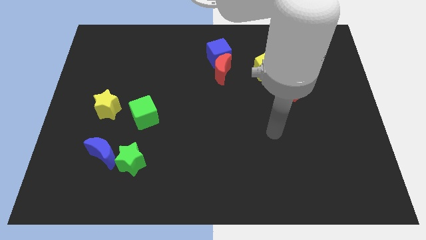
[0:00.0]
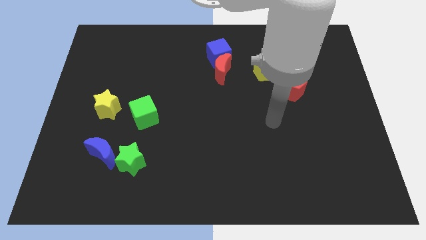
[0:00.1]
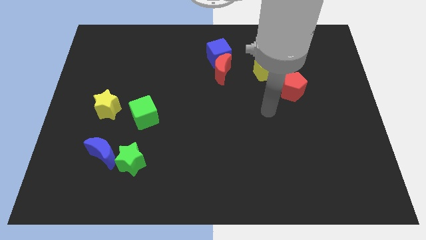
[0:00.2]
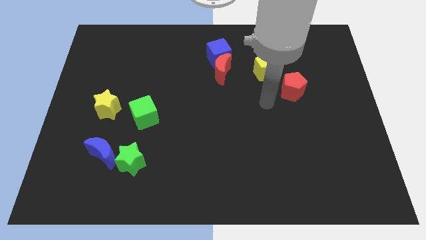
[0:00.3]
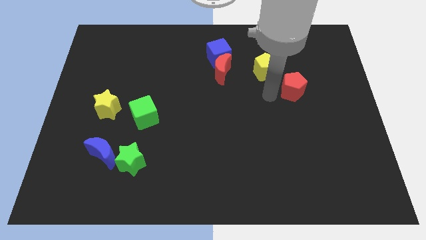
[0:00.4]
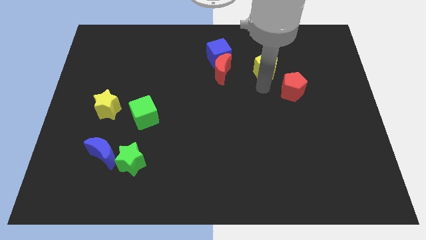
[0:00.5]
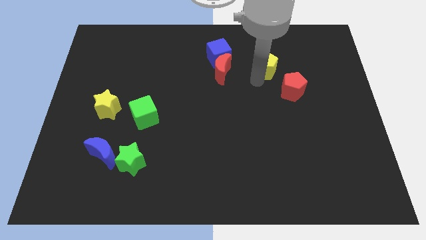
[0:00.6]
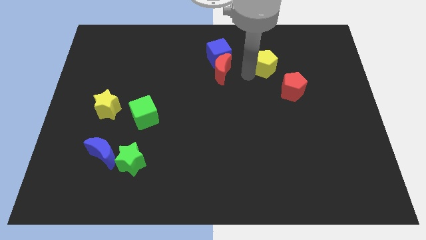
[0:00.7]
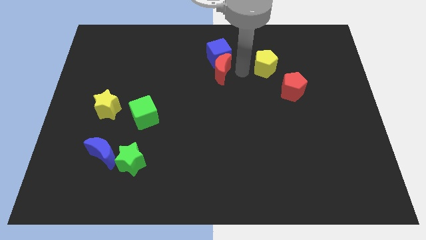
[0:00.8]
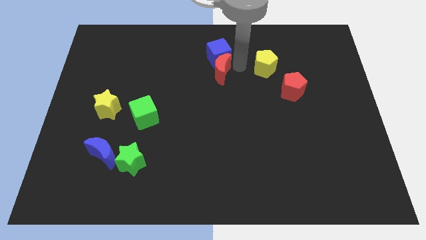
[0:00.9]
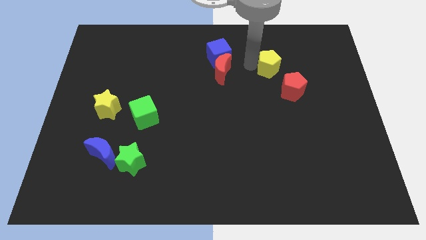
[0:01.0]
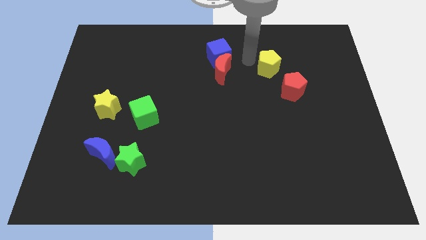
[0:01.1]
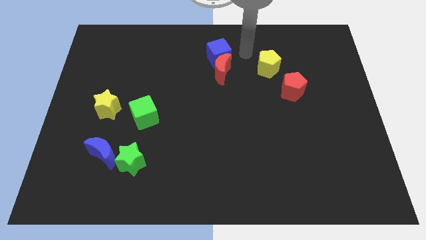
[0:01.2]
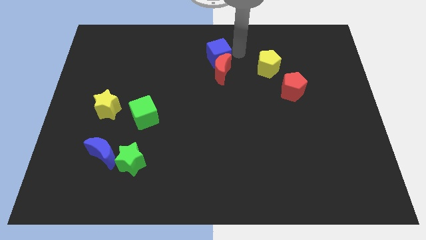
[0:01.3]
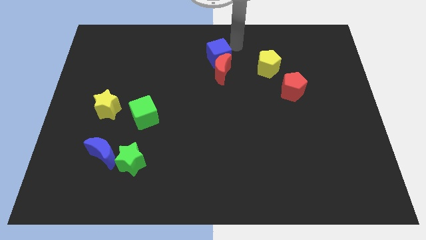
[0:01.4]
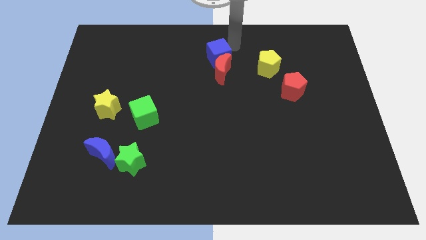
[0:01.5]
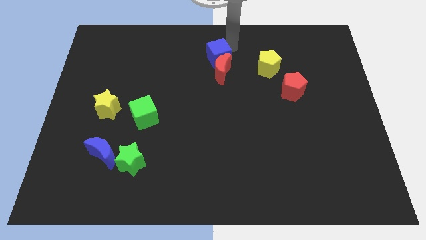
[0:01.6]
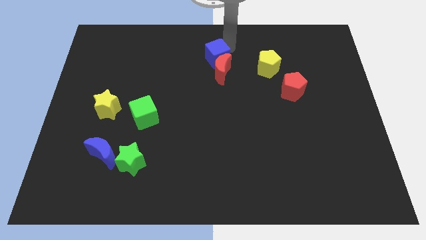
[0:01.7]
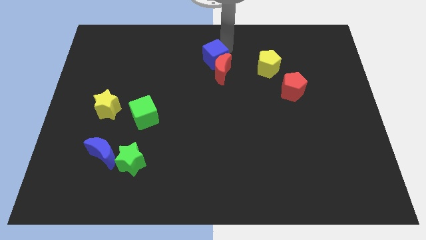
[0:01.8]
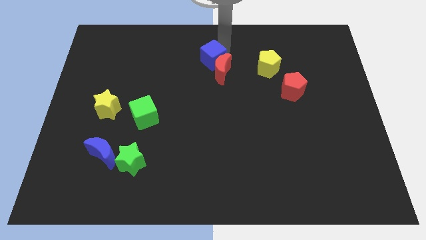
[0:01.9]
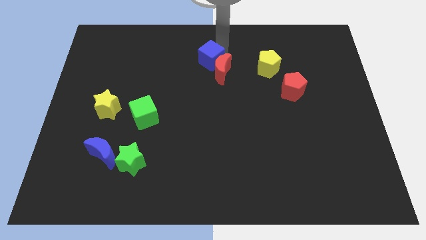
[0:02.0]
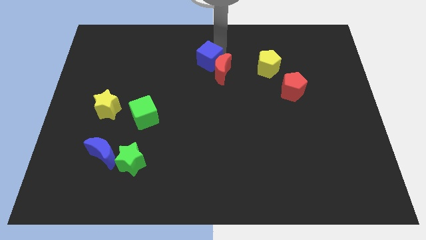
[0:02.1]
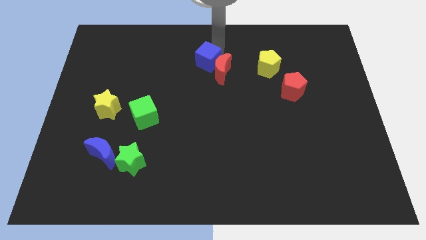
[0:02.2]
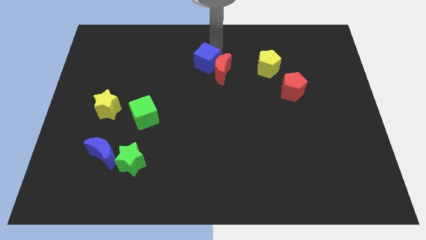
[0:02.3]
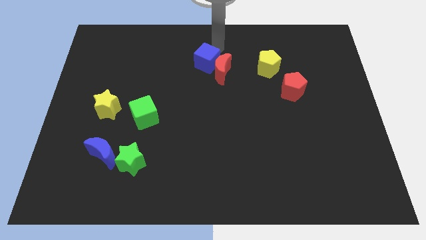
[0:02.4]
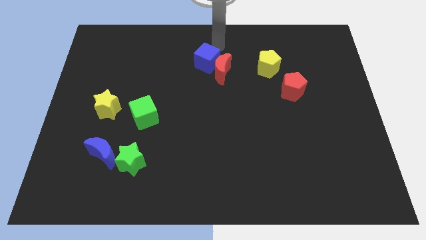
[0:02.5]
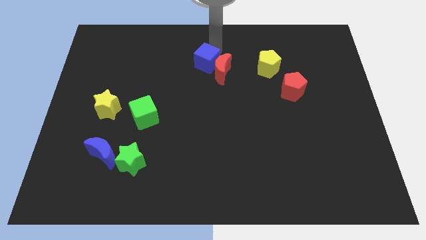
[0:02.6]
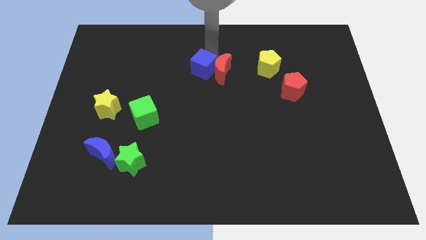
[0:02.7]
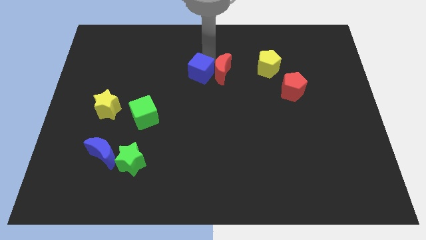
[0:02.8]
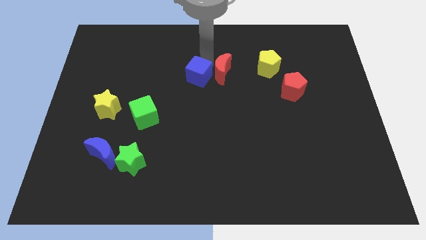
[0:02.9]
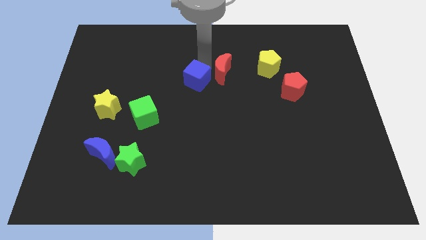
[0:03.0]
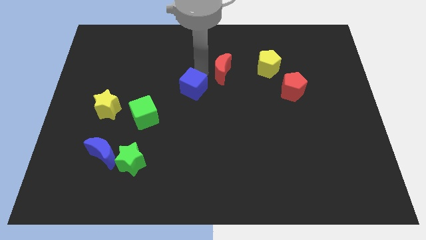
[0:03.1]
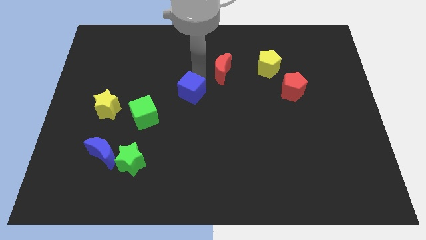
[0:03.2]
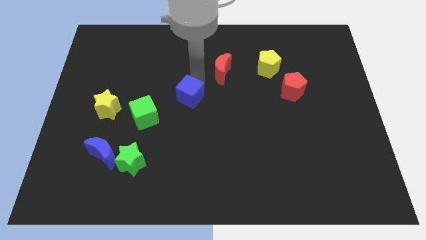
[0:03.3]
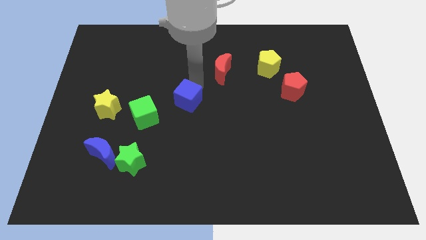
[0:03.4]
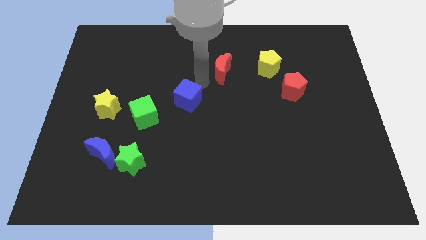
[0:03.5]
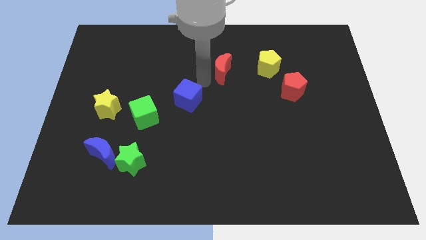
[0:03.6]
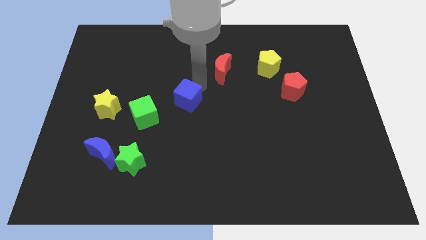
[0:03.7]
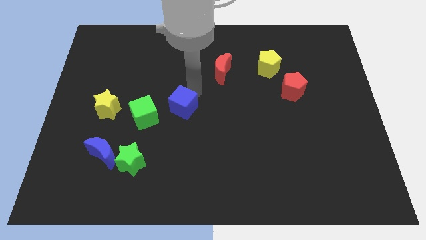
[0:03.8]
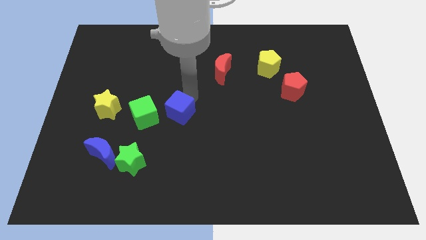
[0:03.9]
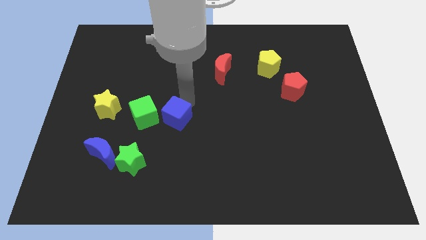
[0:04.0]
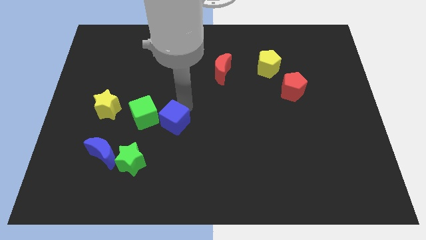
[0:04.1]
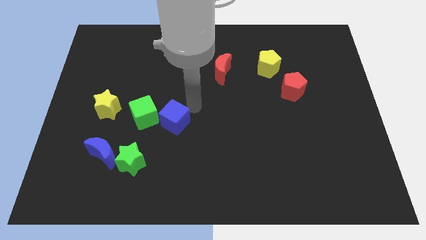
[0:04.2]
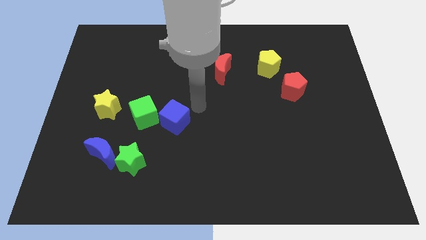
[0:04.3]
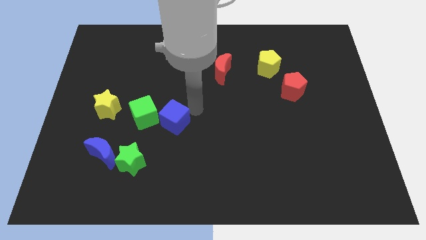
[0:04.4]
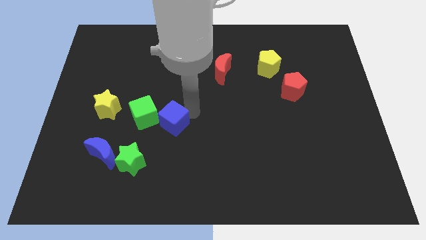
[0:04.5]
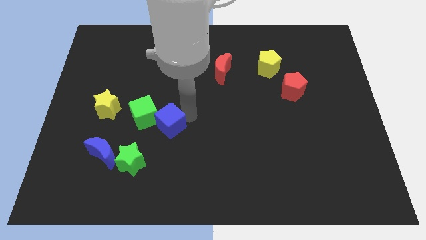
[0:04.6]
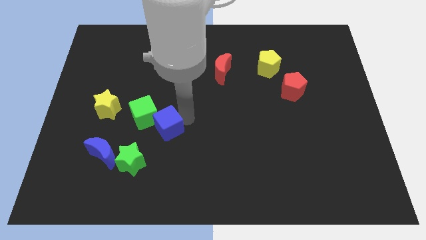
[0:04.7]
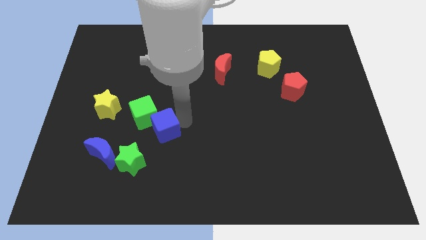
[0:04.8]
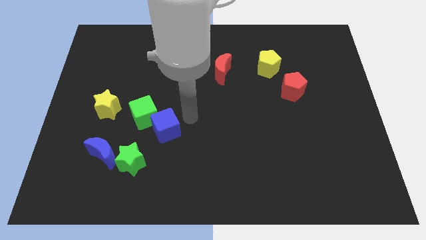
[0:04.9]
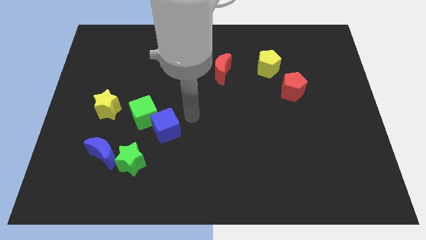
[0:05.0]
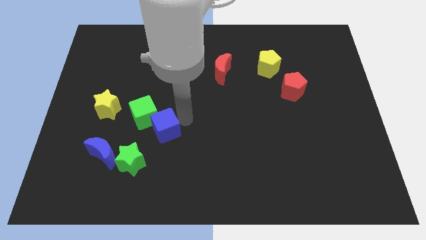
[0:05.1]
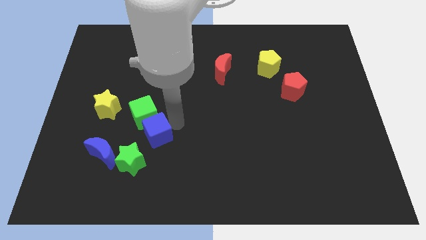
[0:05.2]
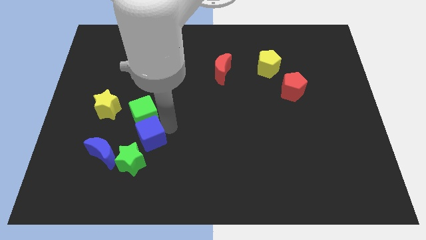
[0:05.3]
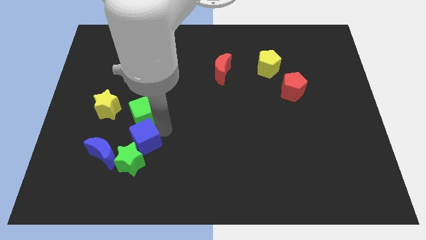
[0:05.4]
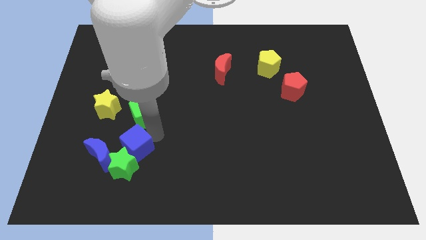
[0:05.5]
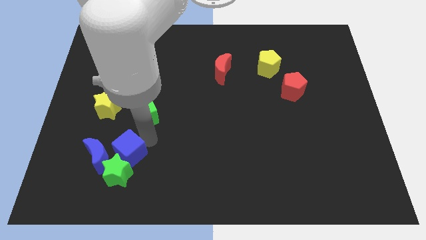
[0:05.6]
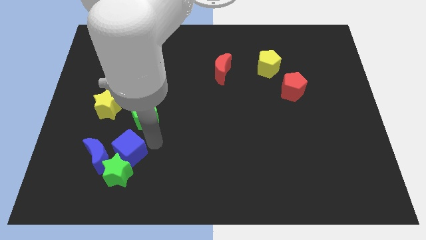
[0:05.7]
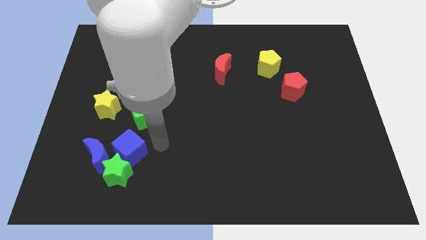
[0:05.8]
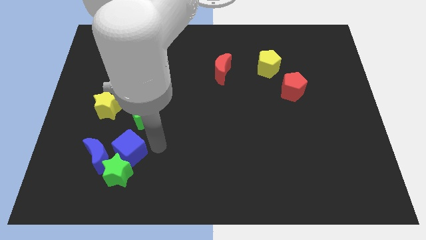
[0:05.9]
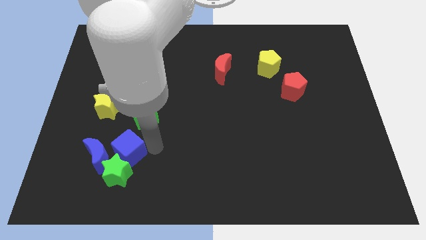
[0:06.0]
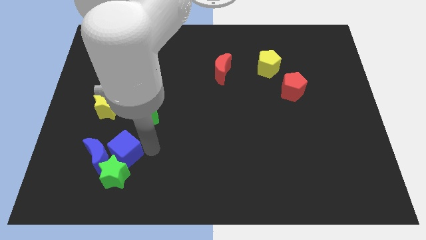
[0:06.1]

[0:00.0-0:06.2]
push the blue cube towards the blue moon

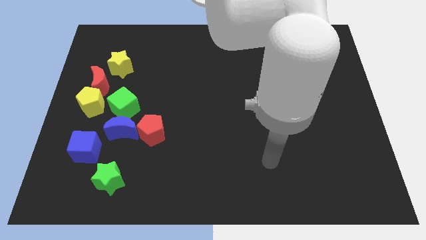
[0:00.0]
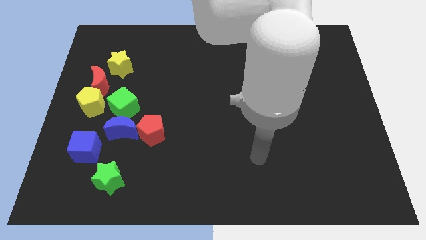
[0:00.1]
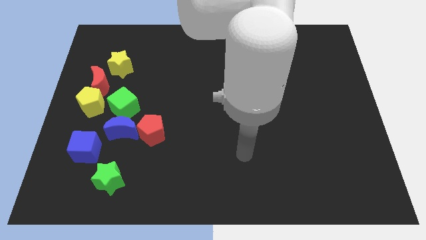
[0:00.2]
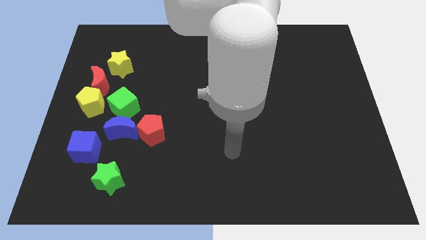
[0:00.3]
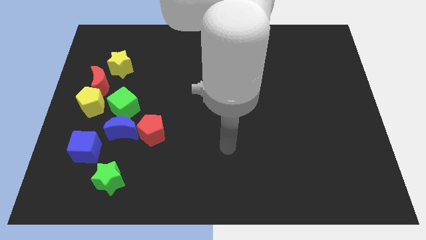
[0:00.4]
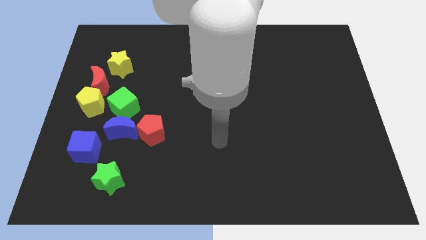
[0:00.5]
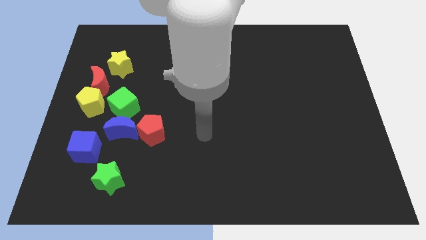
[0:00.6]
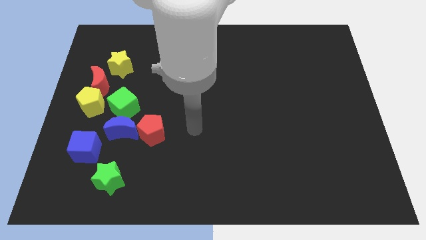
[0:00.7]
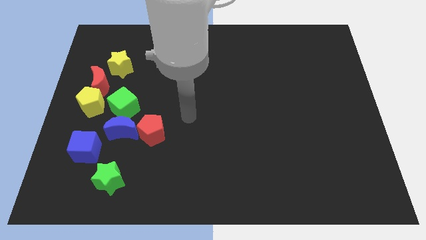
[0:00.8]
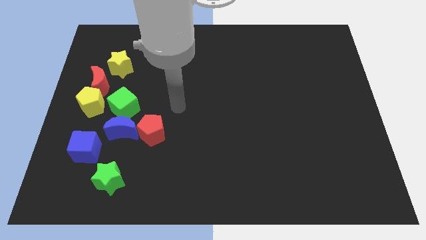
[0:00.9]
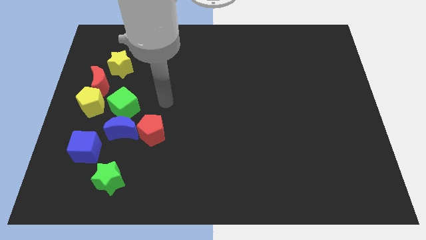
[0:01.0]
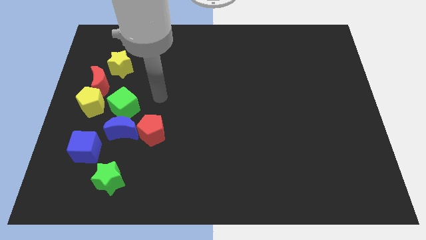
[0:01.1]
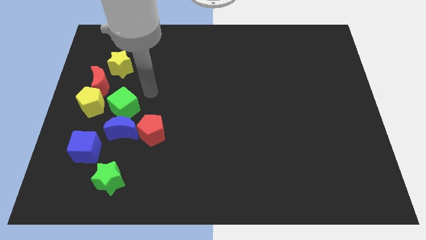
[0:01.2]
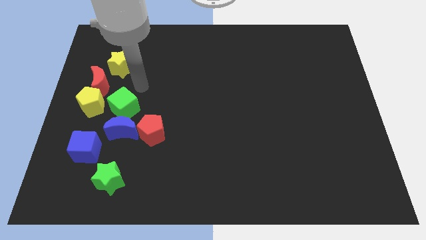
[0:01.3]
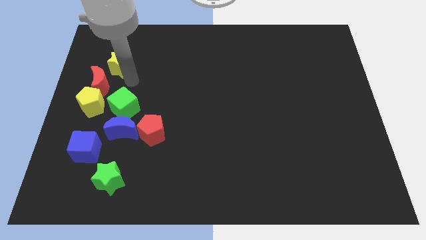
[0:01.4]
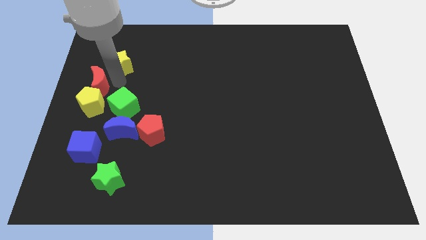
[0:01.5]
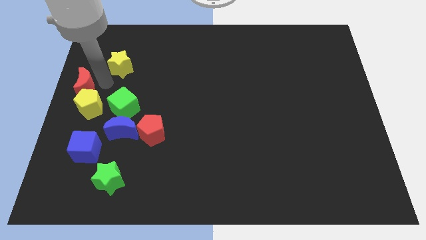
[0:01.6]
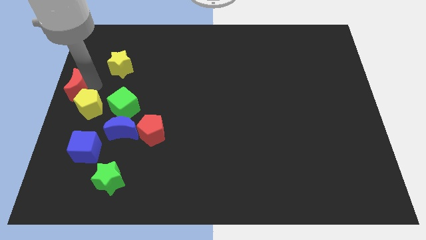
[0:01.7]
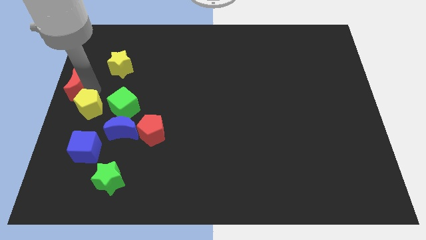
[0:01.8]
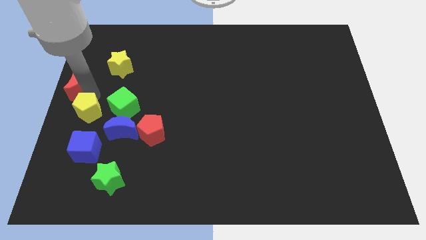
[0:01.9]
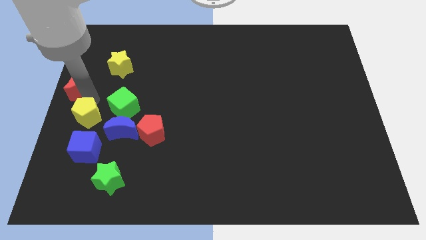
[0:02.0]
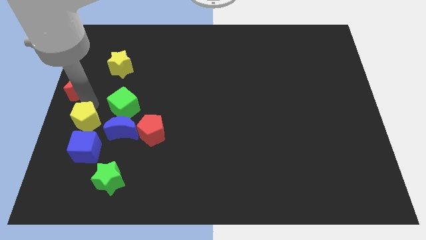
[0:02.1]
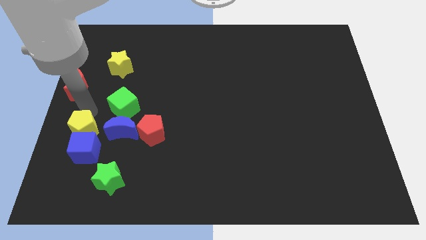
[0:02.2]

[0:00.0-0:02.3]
push the yellow pentagon to the blue cube

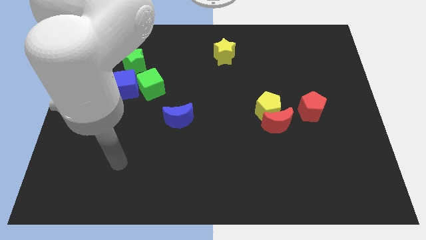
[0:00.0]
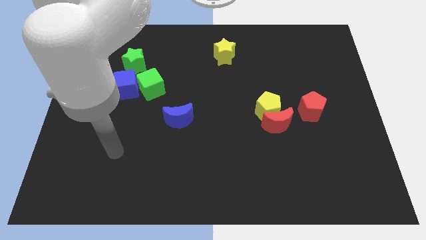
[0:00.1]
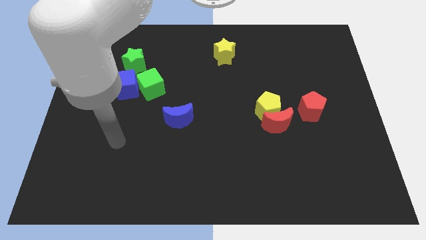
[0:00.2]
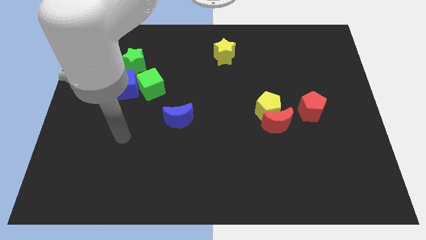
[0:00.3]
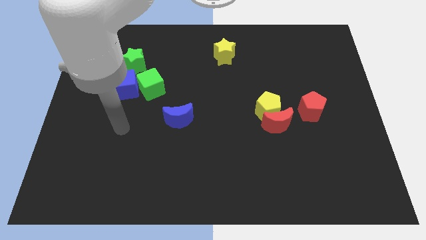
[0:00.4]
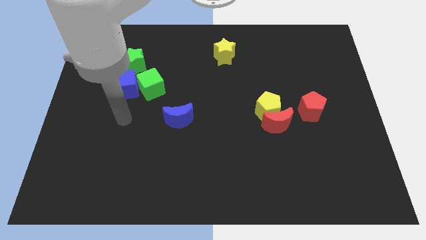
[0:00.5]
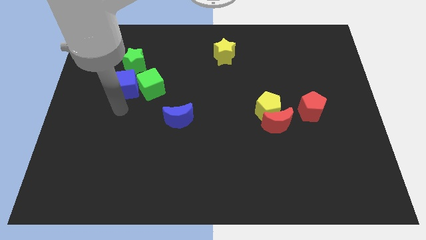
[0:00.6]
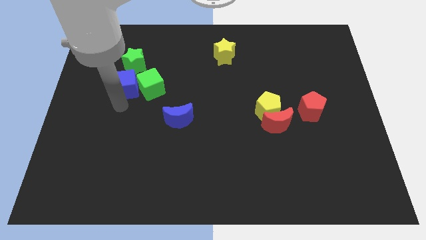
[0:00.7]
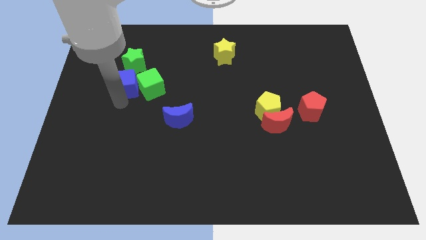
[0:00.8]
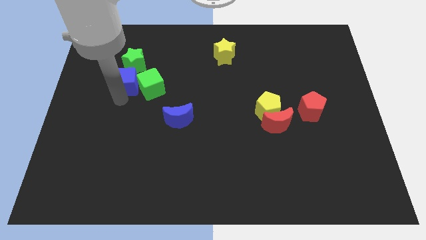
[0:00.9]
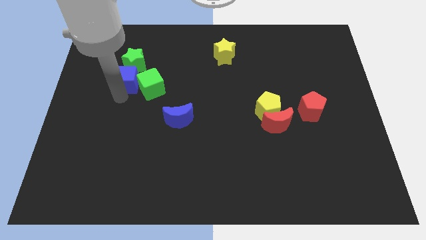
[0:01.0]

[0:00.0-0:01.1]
slide the blue cube to the green star
